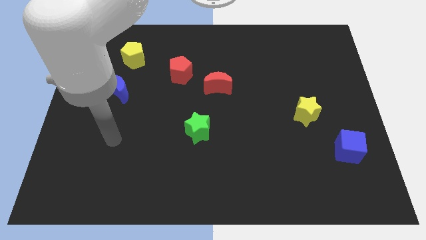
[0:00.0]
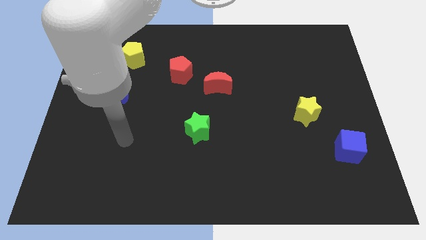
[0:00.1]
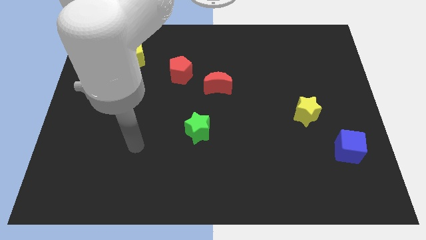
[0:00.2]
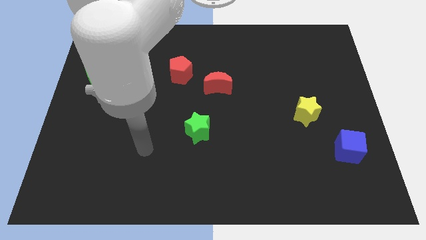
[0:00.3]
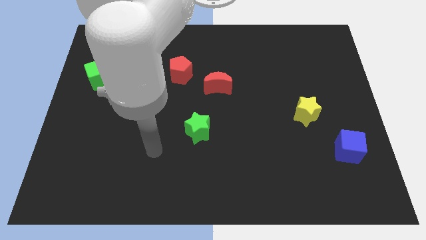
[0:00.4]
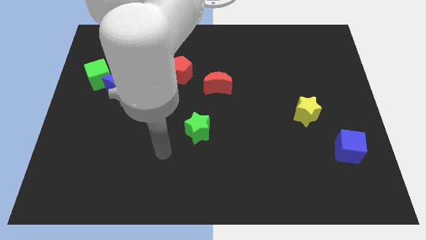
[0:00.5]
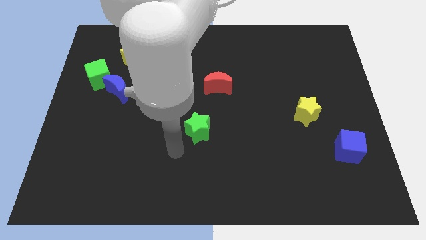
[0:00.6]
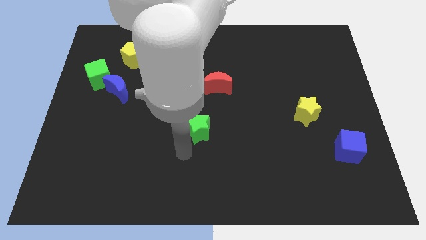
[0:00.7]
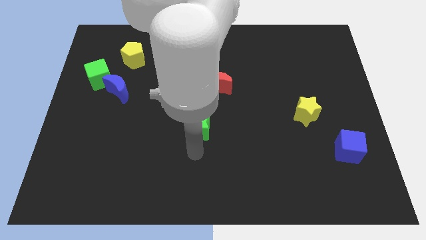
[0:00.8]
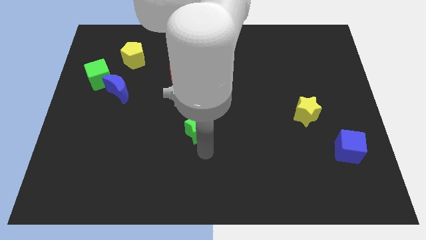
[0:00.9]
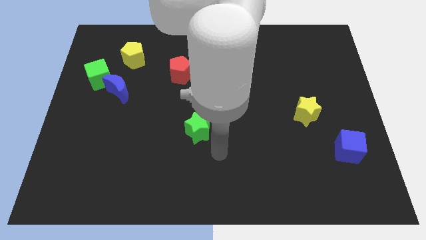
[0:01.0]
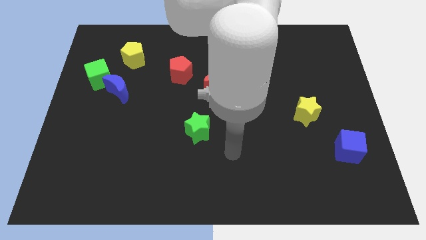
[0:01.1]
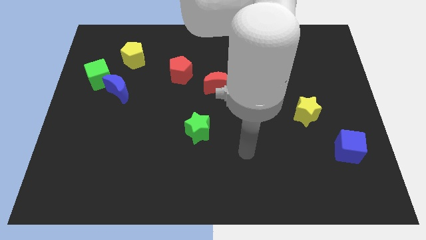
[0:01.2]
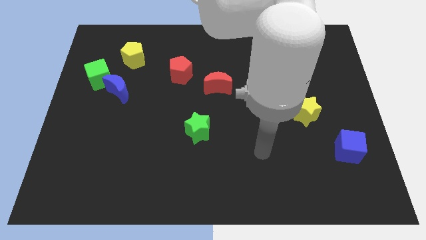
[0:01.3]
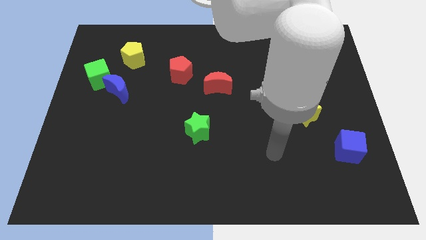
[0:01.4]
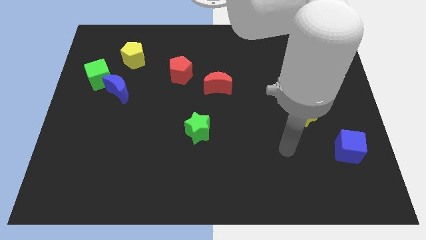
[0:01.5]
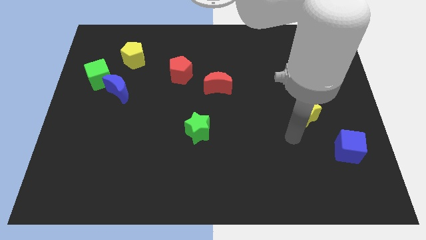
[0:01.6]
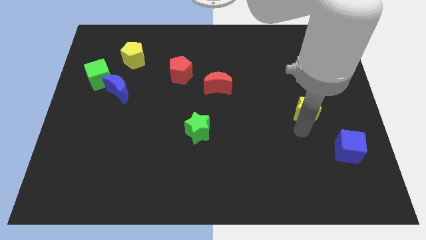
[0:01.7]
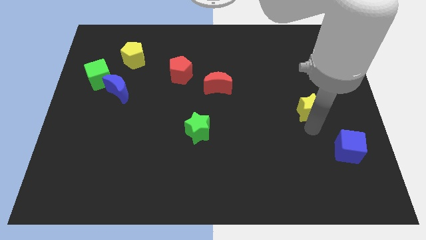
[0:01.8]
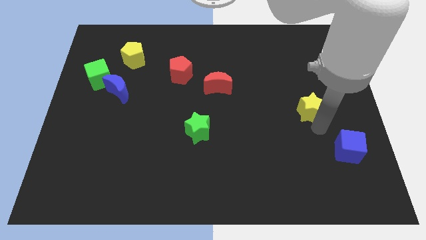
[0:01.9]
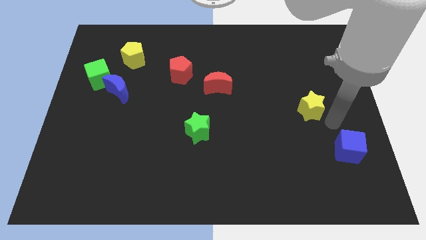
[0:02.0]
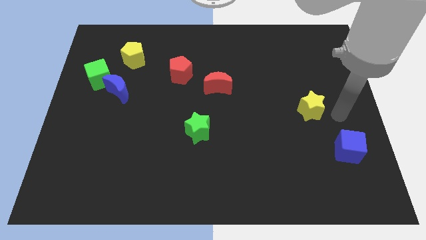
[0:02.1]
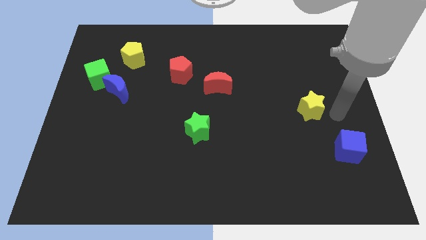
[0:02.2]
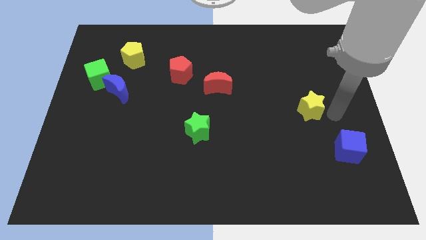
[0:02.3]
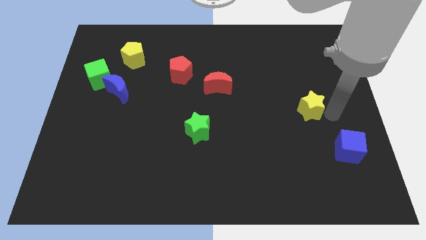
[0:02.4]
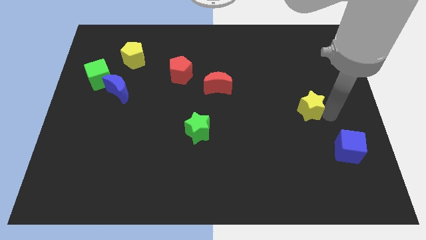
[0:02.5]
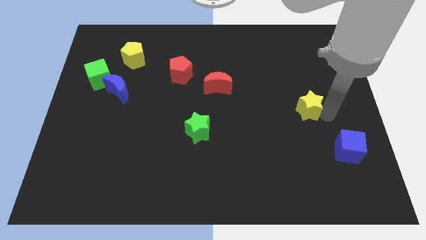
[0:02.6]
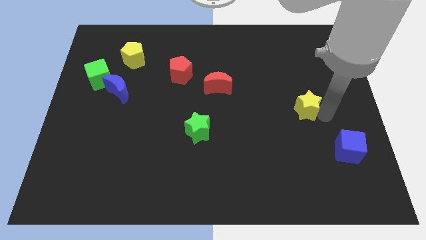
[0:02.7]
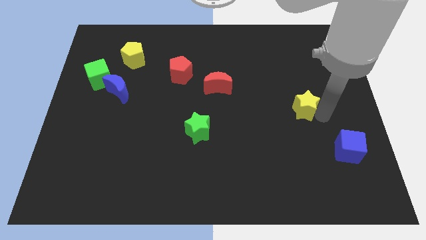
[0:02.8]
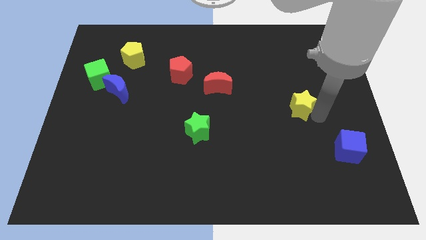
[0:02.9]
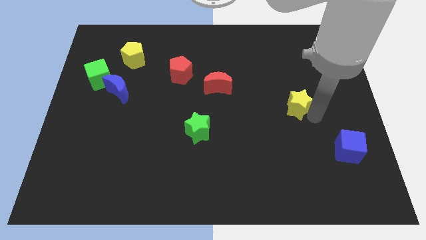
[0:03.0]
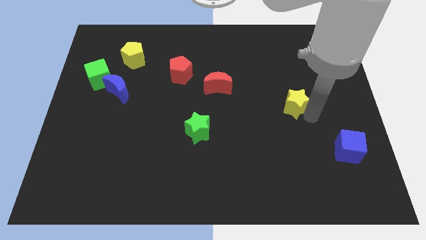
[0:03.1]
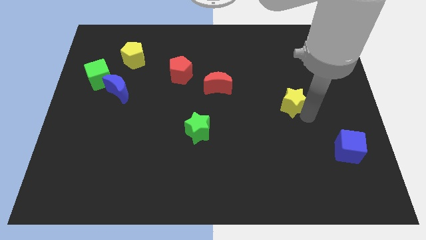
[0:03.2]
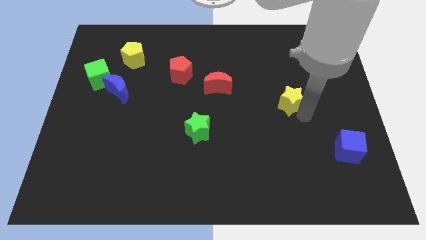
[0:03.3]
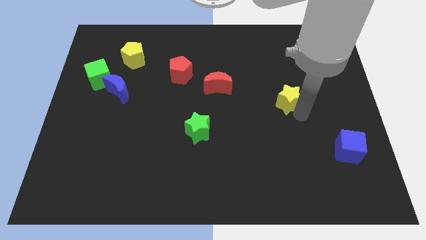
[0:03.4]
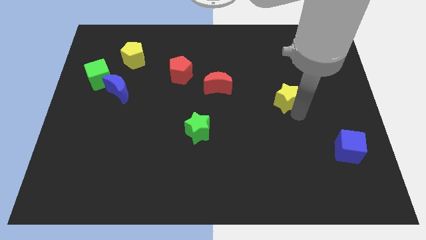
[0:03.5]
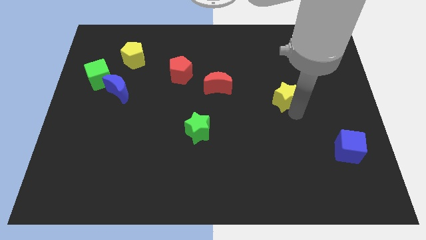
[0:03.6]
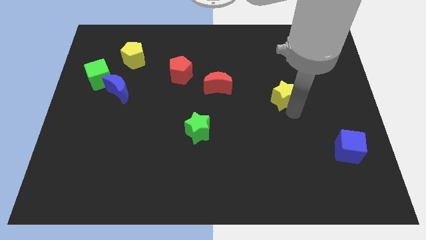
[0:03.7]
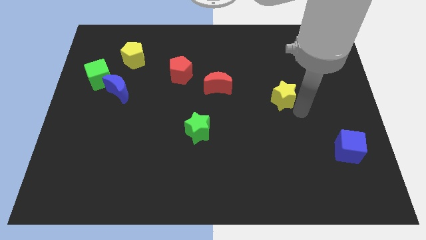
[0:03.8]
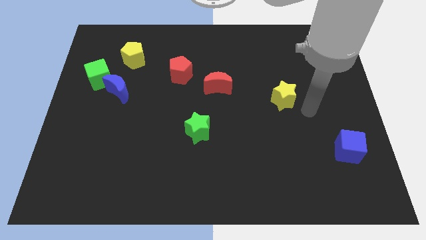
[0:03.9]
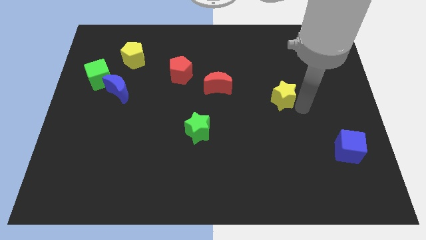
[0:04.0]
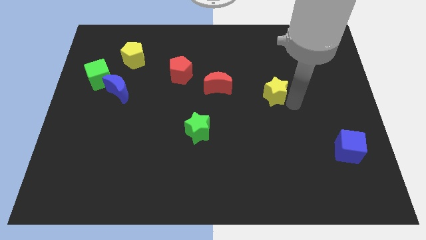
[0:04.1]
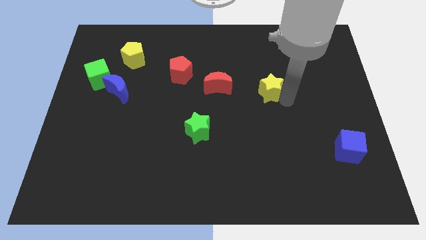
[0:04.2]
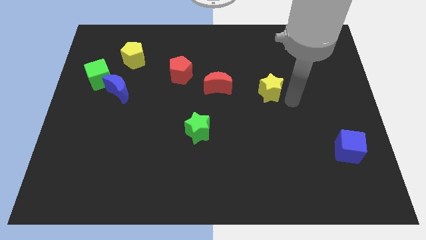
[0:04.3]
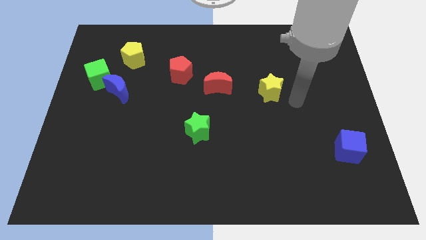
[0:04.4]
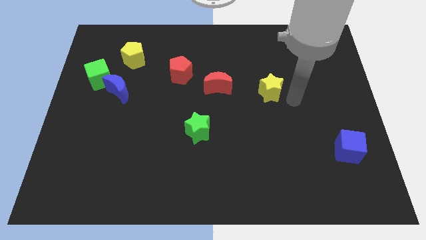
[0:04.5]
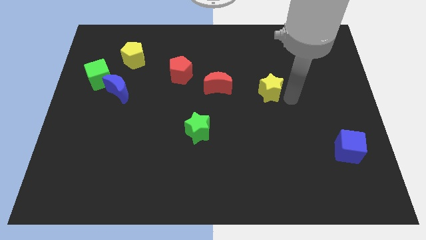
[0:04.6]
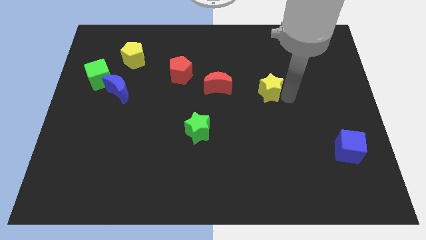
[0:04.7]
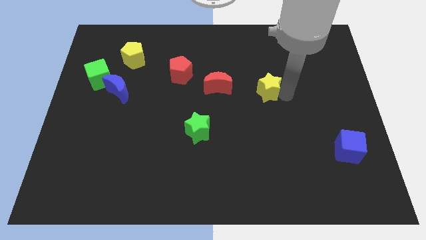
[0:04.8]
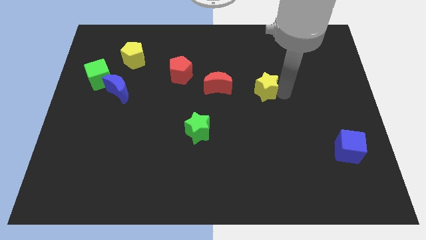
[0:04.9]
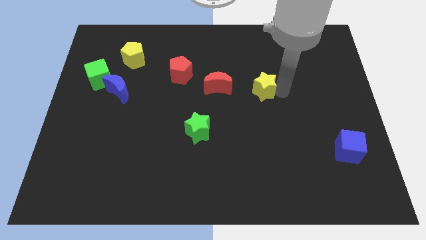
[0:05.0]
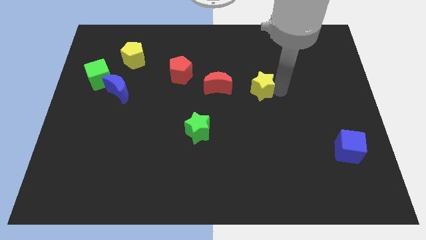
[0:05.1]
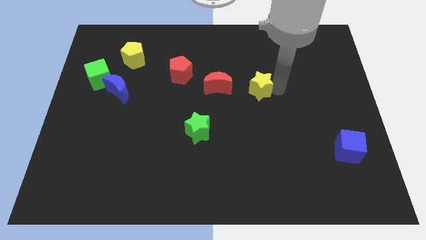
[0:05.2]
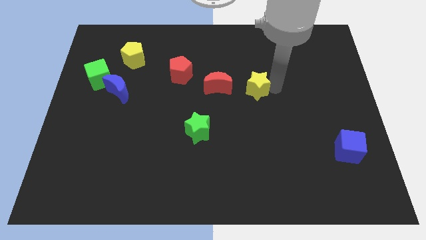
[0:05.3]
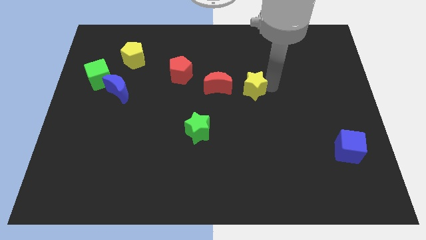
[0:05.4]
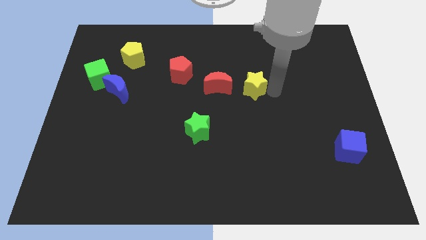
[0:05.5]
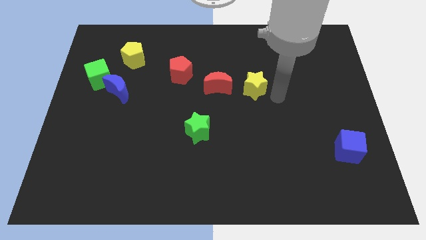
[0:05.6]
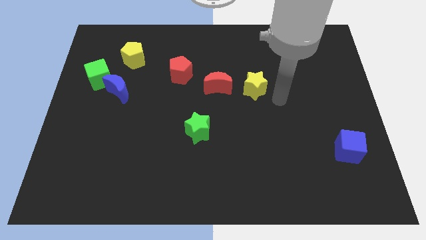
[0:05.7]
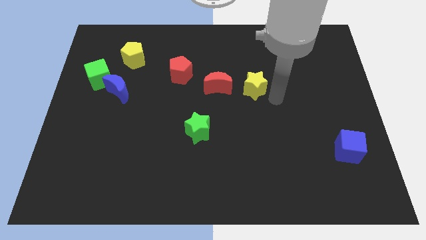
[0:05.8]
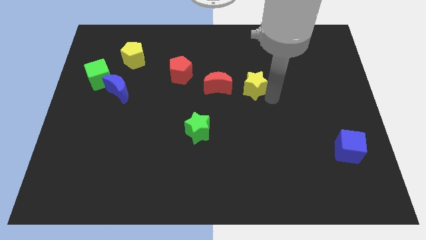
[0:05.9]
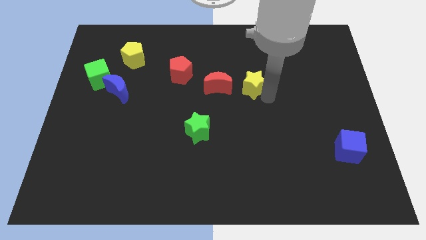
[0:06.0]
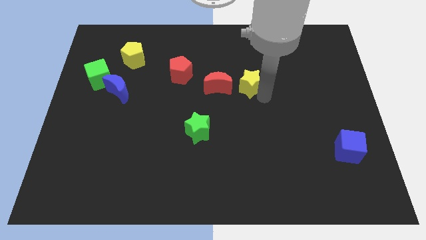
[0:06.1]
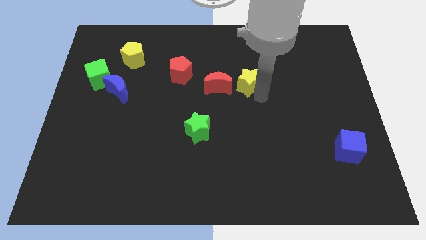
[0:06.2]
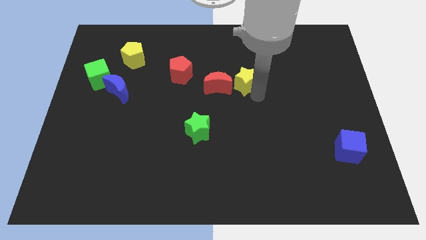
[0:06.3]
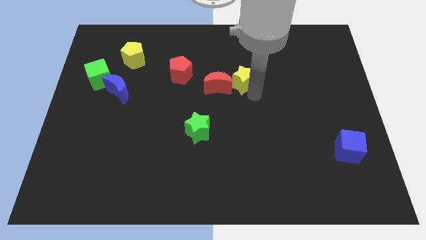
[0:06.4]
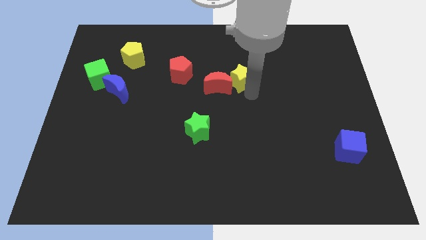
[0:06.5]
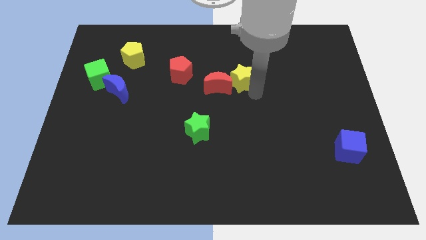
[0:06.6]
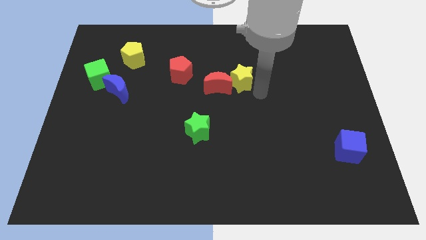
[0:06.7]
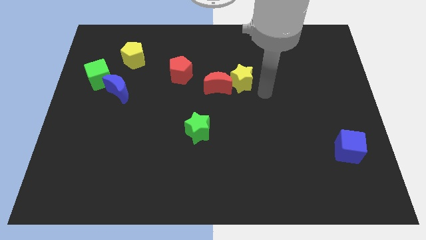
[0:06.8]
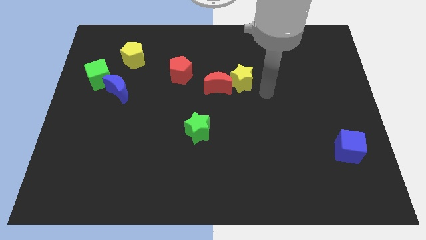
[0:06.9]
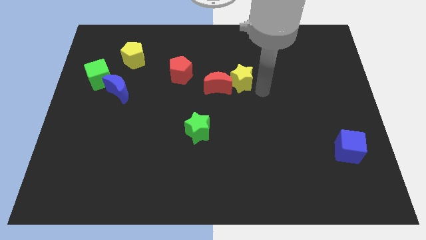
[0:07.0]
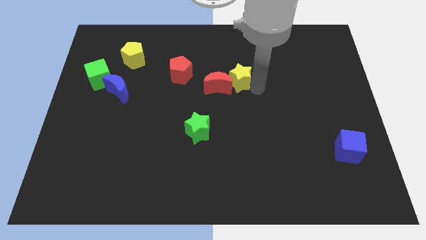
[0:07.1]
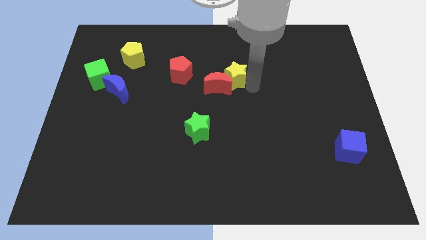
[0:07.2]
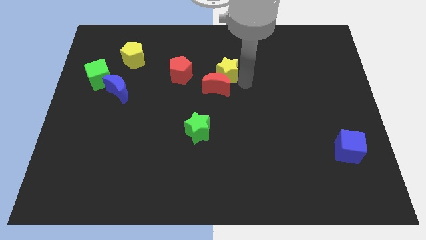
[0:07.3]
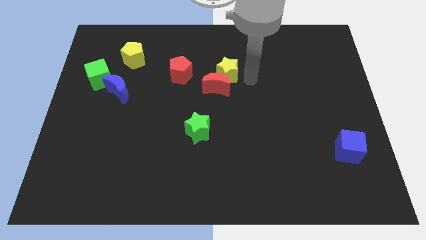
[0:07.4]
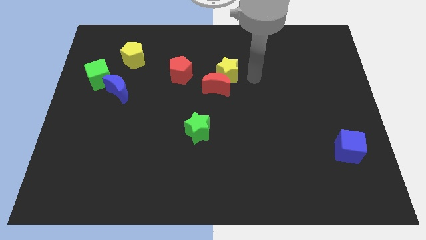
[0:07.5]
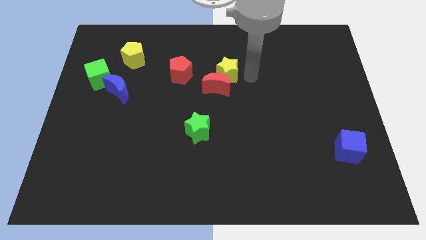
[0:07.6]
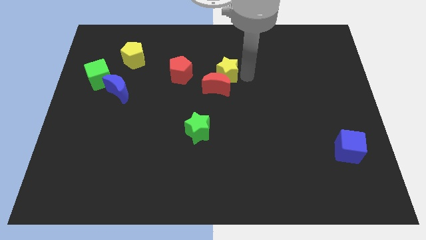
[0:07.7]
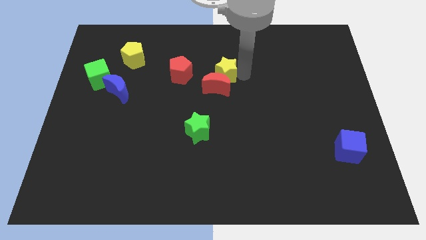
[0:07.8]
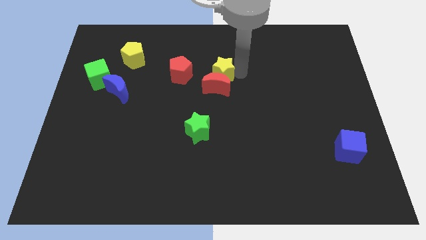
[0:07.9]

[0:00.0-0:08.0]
put the yellow star to the top left side of the red moon
